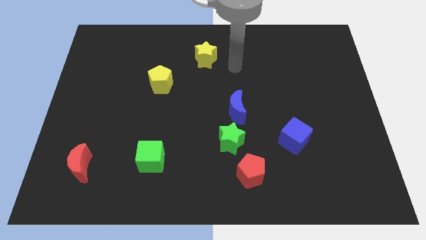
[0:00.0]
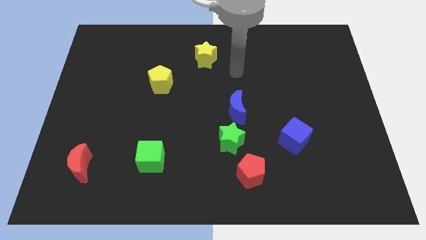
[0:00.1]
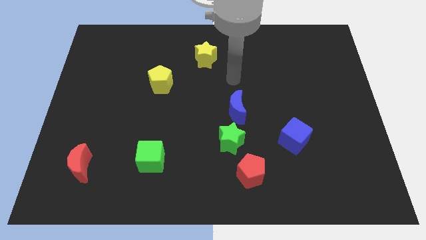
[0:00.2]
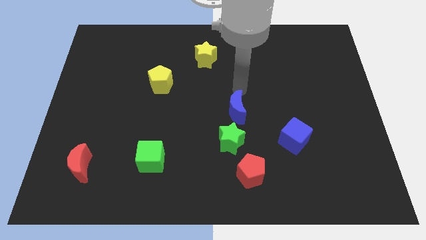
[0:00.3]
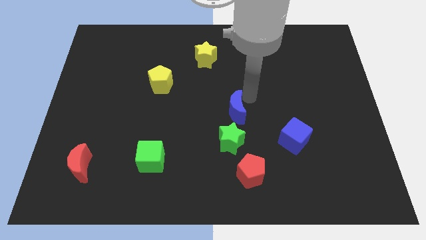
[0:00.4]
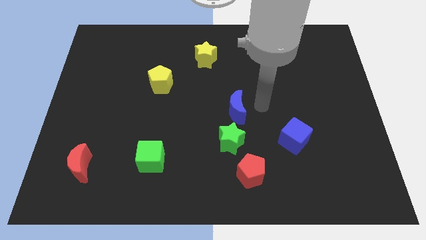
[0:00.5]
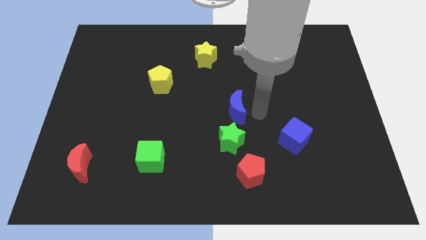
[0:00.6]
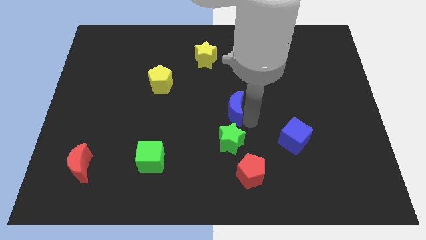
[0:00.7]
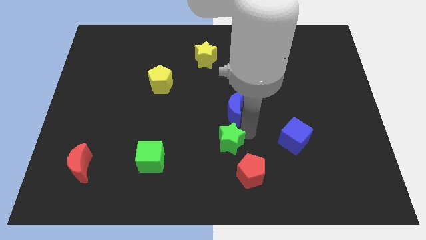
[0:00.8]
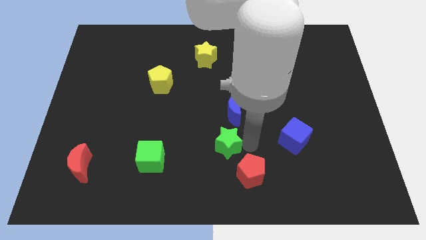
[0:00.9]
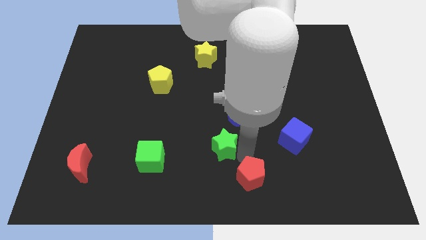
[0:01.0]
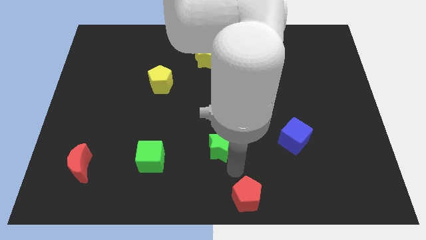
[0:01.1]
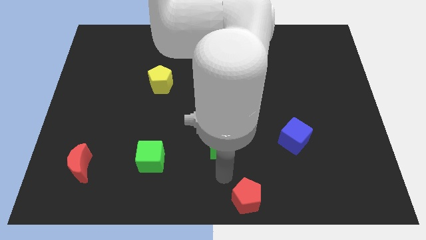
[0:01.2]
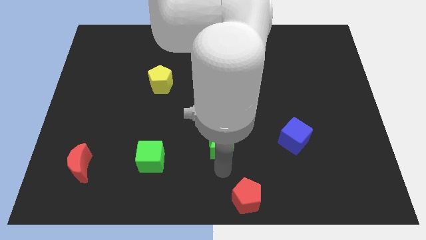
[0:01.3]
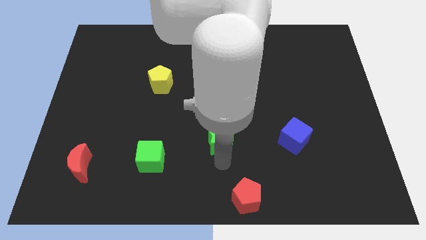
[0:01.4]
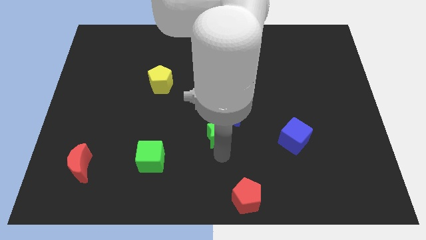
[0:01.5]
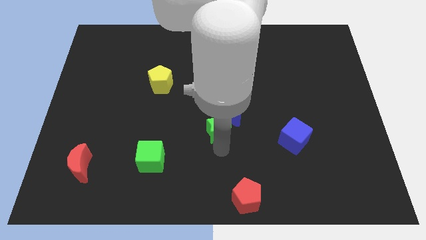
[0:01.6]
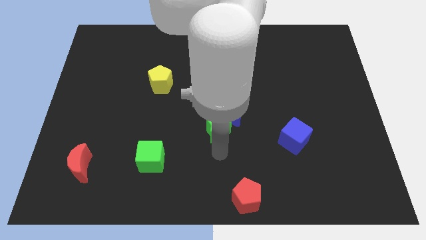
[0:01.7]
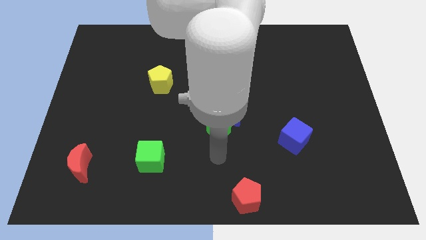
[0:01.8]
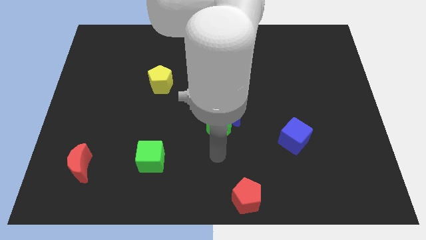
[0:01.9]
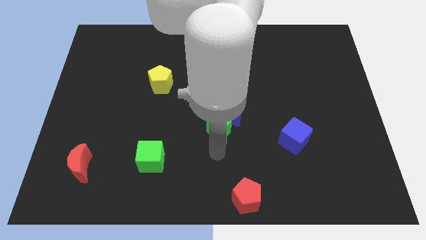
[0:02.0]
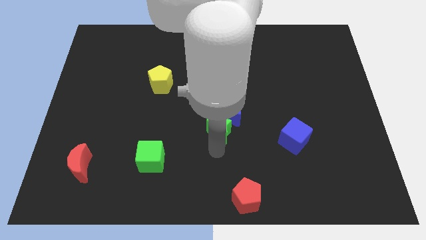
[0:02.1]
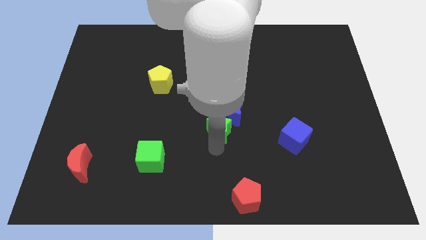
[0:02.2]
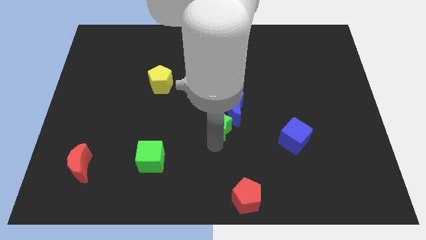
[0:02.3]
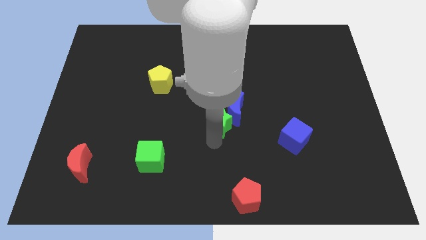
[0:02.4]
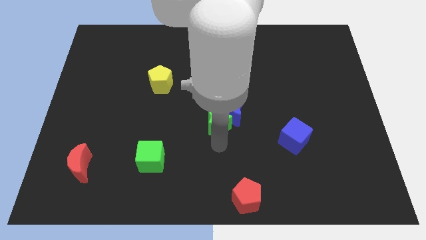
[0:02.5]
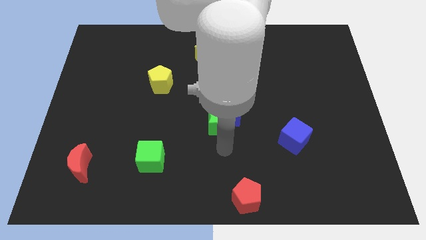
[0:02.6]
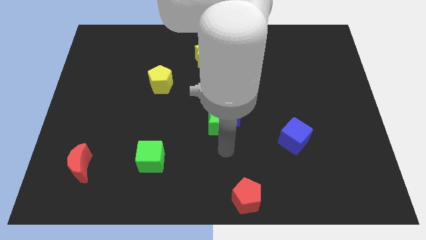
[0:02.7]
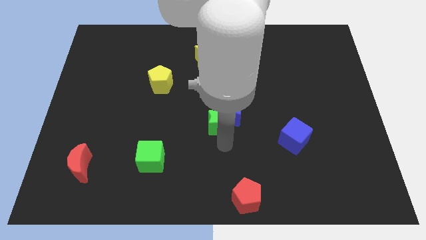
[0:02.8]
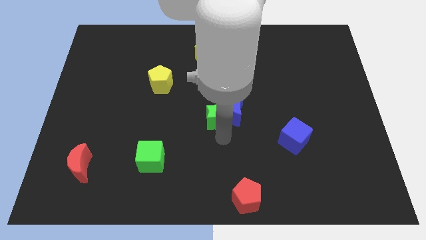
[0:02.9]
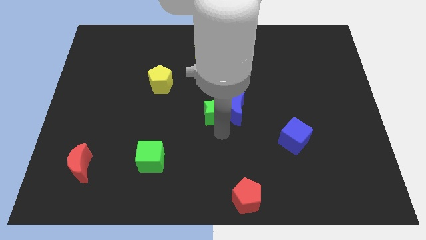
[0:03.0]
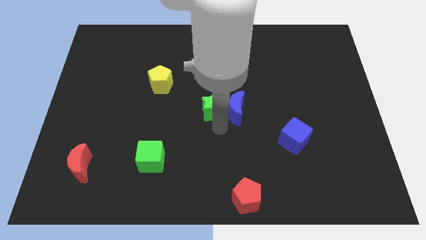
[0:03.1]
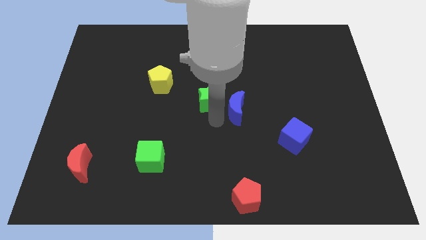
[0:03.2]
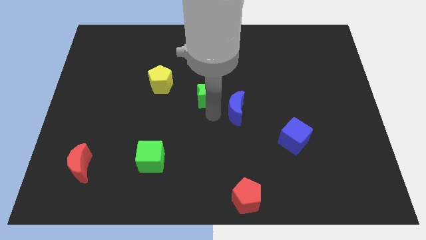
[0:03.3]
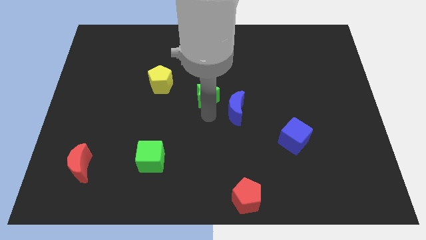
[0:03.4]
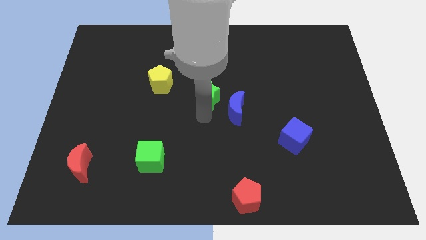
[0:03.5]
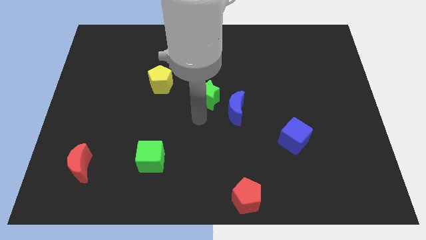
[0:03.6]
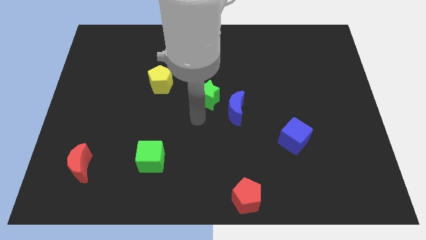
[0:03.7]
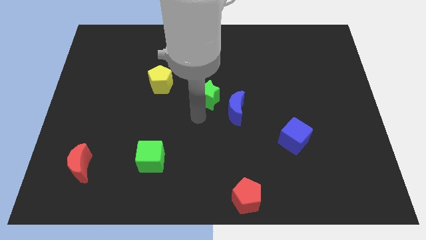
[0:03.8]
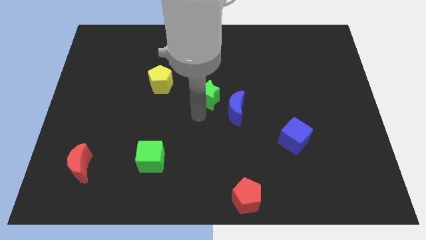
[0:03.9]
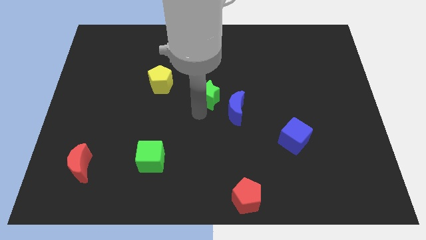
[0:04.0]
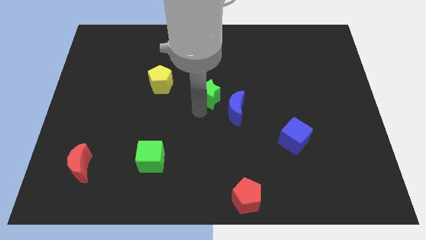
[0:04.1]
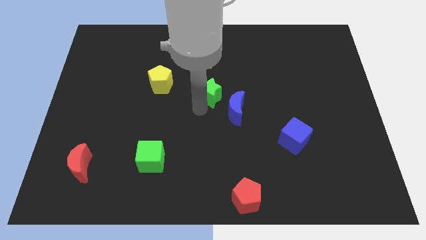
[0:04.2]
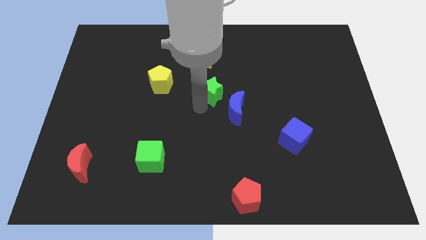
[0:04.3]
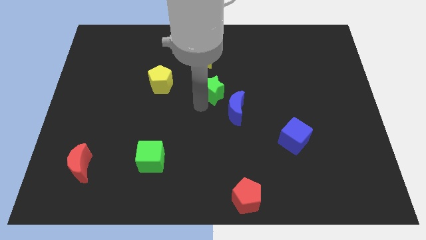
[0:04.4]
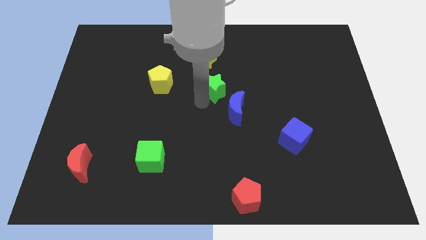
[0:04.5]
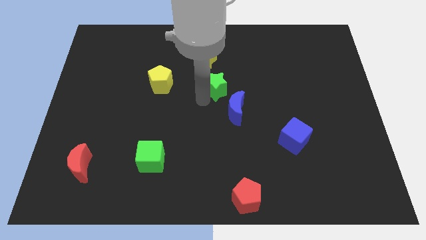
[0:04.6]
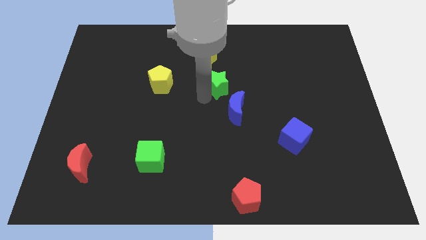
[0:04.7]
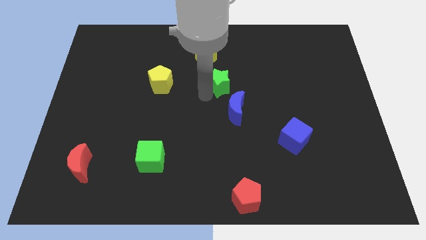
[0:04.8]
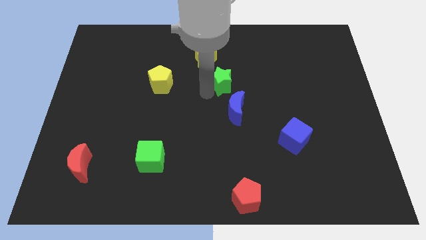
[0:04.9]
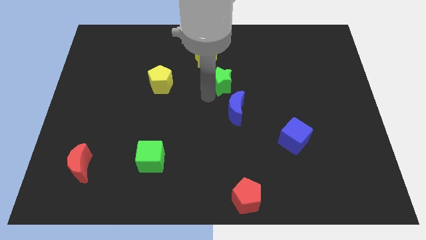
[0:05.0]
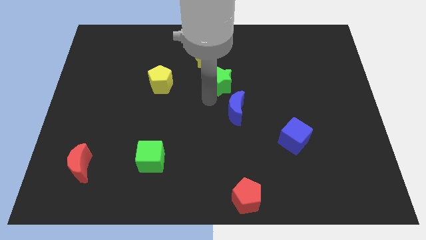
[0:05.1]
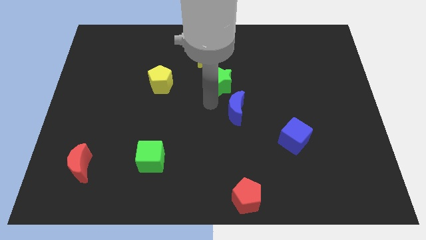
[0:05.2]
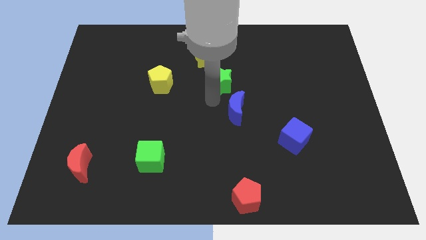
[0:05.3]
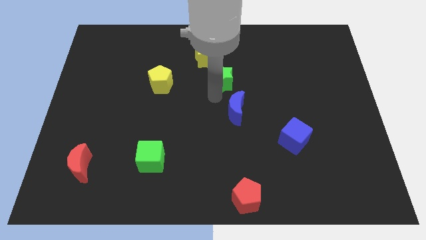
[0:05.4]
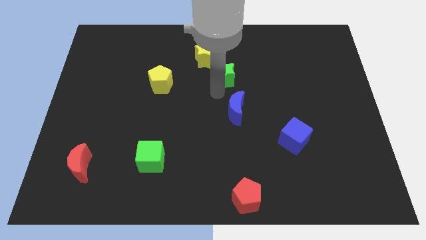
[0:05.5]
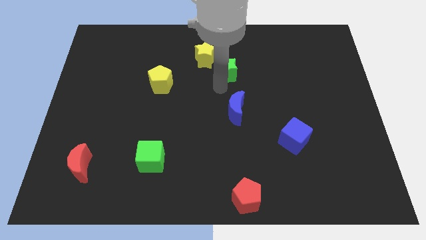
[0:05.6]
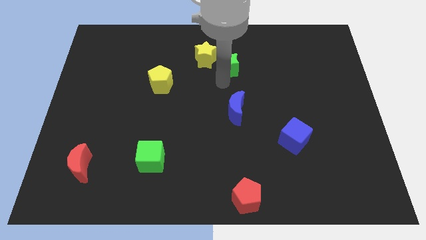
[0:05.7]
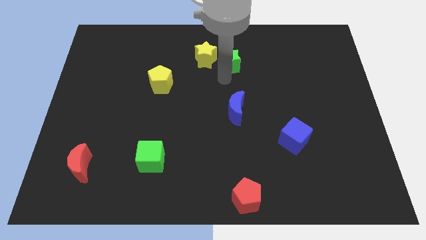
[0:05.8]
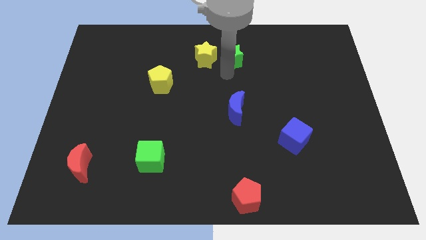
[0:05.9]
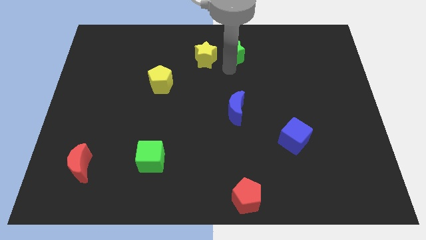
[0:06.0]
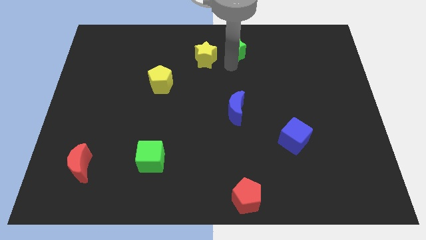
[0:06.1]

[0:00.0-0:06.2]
slide the green star to the top side
